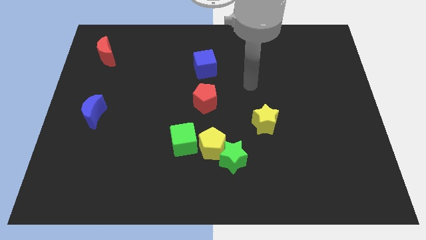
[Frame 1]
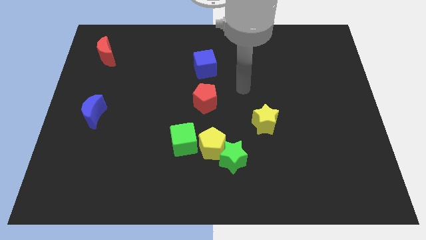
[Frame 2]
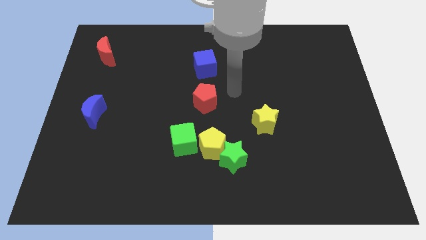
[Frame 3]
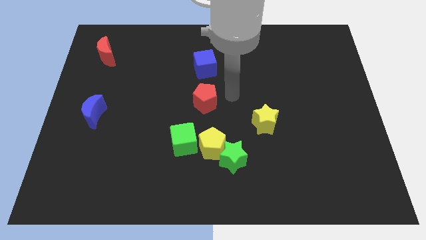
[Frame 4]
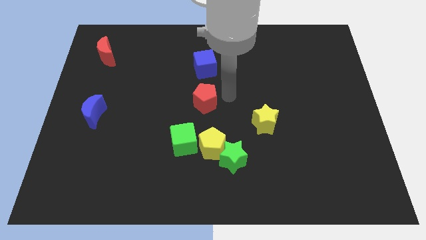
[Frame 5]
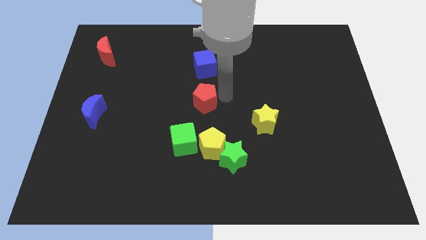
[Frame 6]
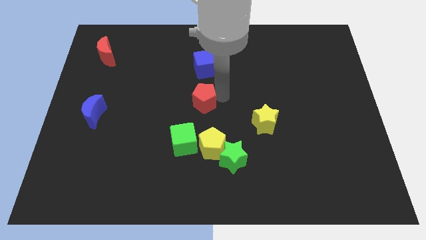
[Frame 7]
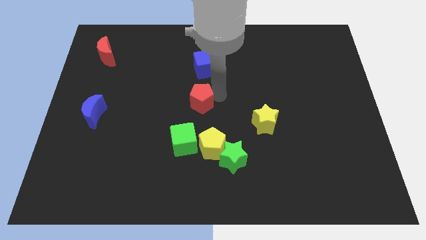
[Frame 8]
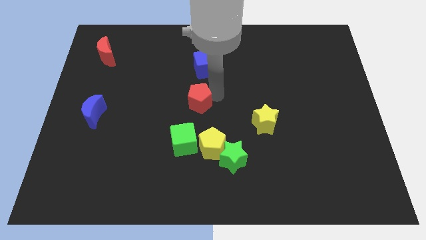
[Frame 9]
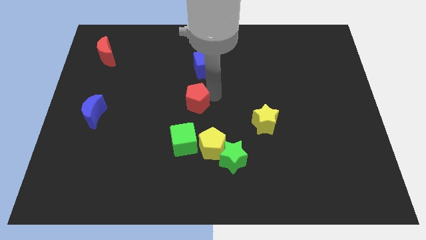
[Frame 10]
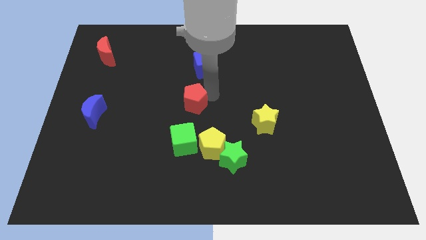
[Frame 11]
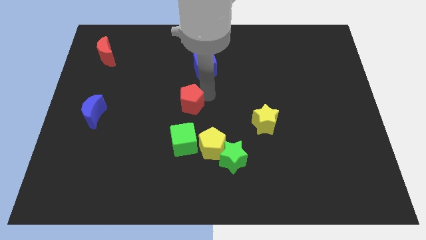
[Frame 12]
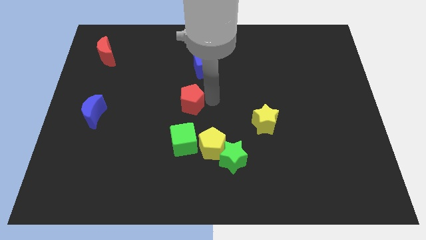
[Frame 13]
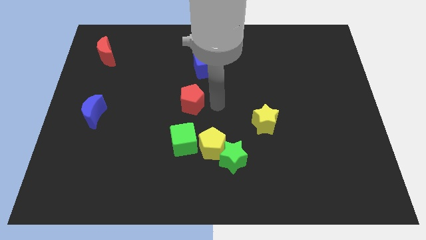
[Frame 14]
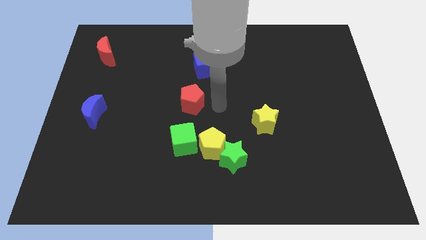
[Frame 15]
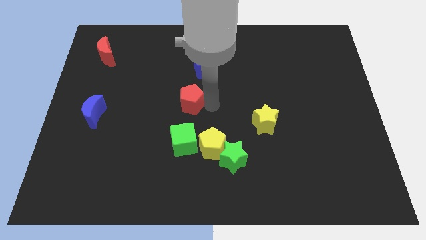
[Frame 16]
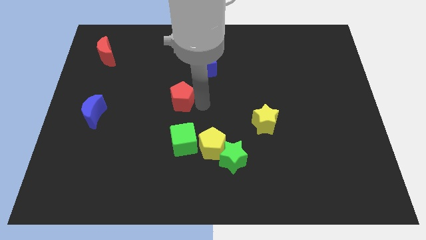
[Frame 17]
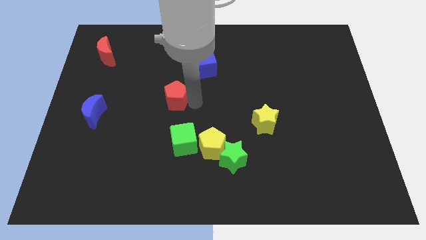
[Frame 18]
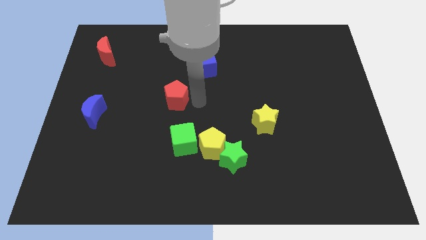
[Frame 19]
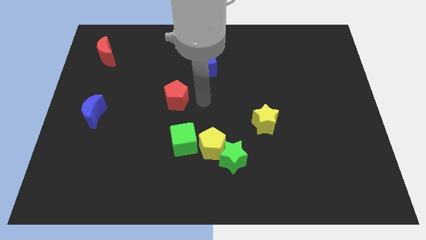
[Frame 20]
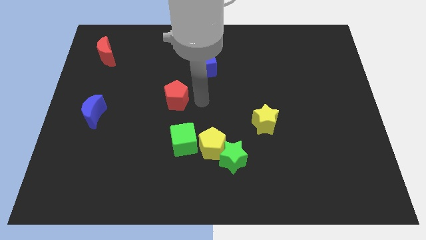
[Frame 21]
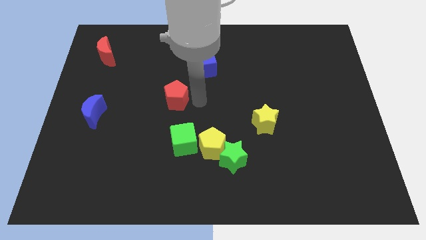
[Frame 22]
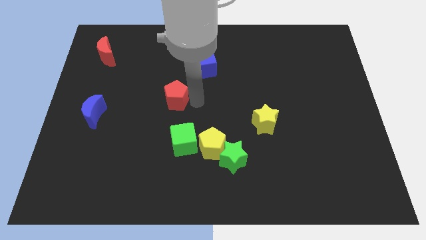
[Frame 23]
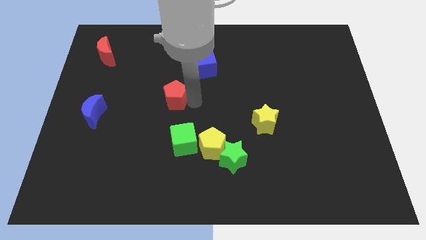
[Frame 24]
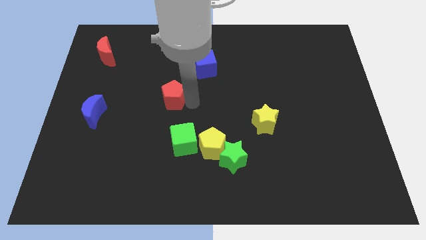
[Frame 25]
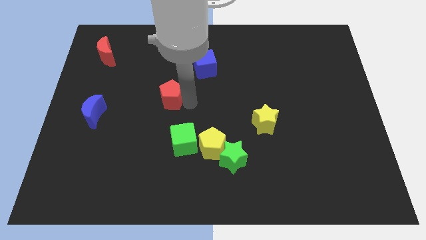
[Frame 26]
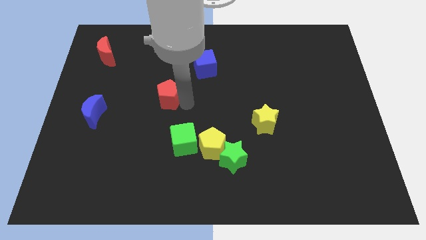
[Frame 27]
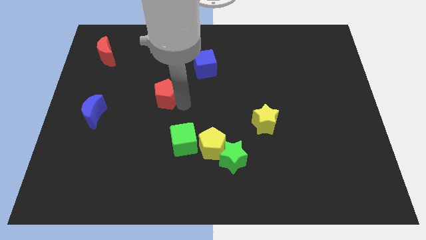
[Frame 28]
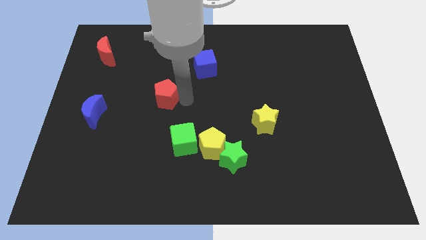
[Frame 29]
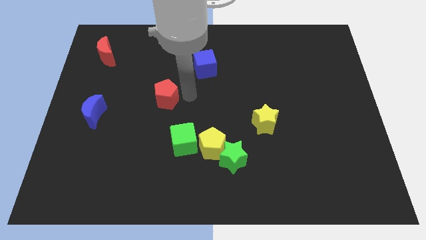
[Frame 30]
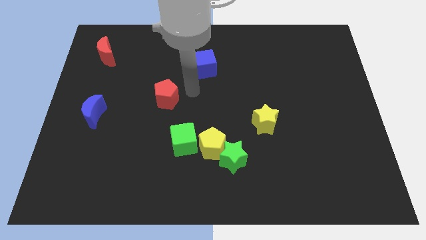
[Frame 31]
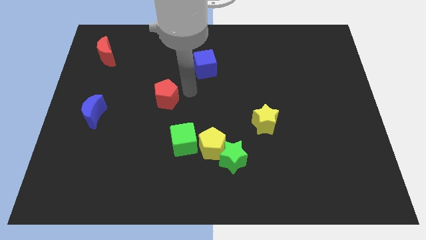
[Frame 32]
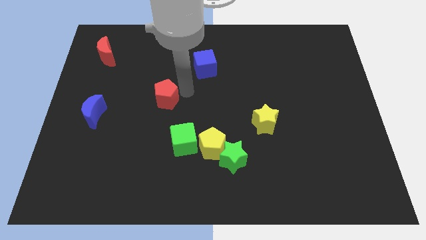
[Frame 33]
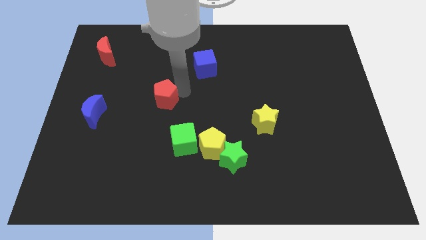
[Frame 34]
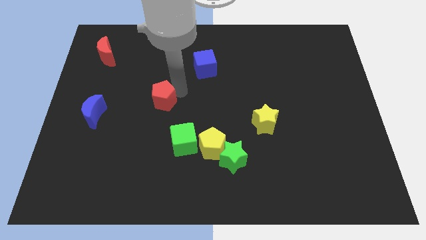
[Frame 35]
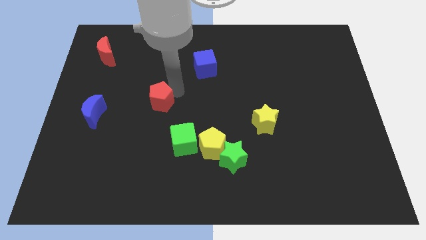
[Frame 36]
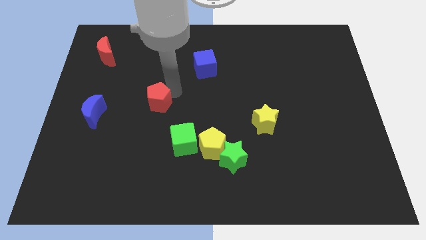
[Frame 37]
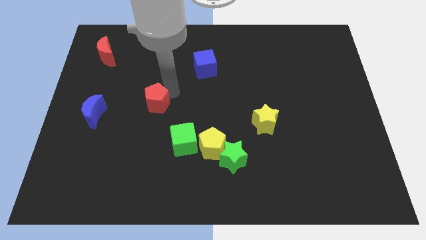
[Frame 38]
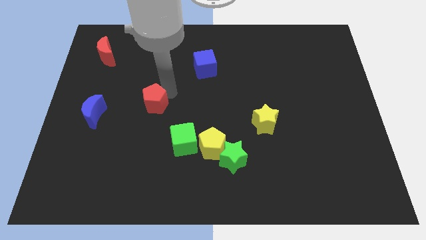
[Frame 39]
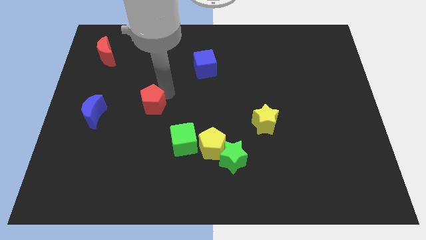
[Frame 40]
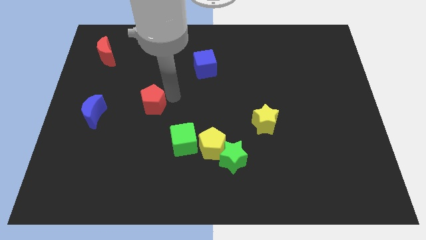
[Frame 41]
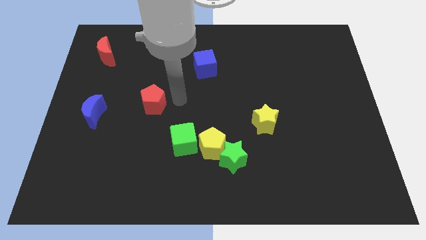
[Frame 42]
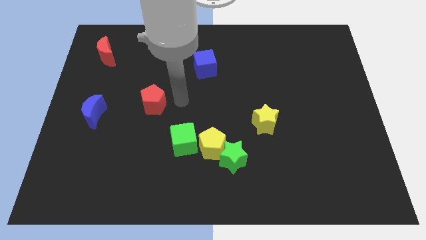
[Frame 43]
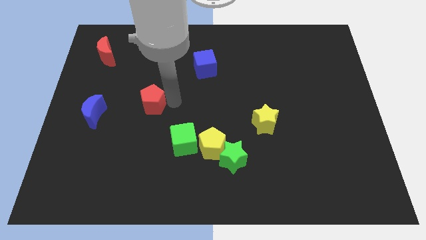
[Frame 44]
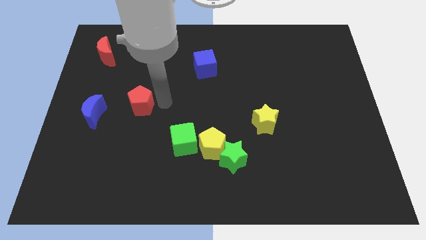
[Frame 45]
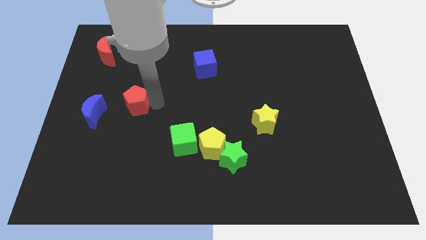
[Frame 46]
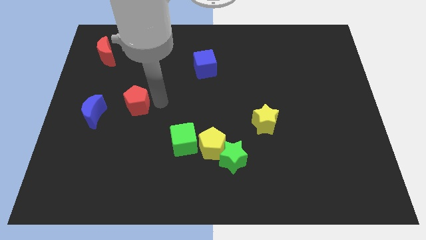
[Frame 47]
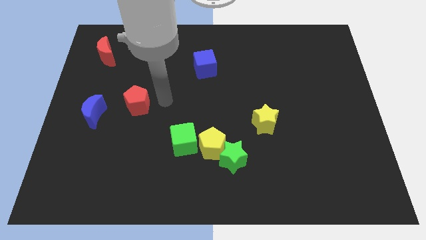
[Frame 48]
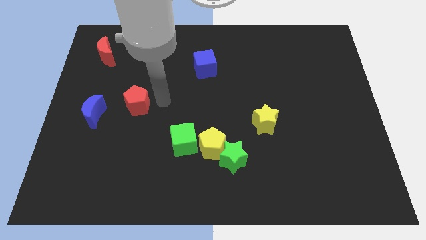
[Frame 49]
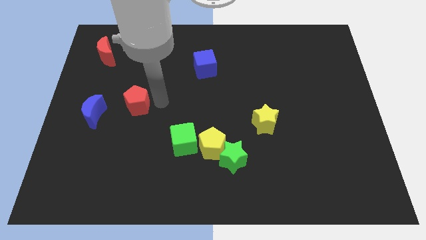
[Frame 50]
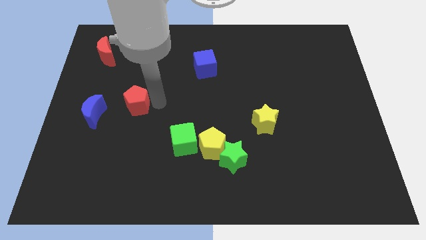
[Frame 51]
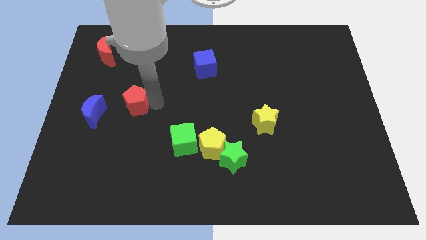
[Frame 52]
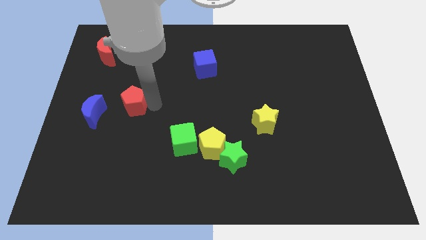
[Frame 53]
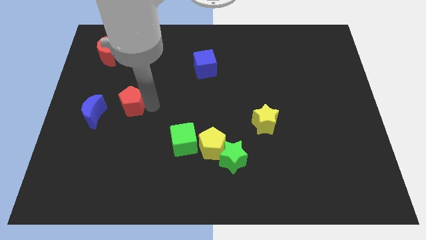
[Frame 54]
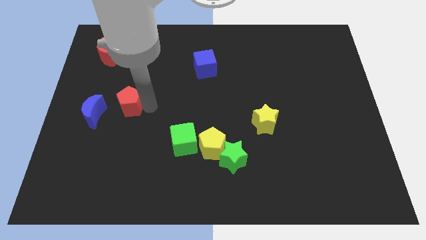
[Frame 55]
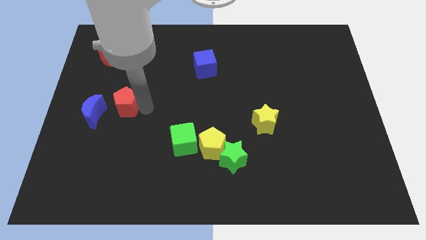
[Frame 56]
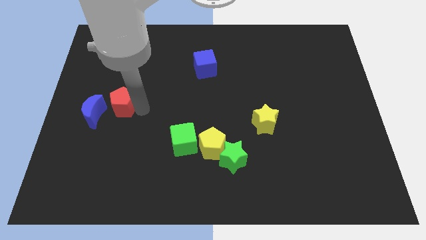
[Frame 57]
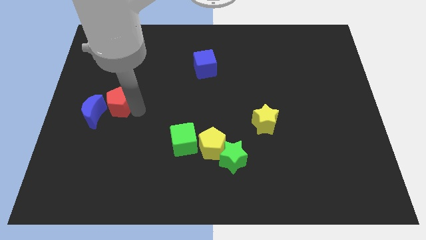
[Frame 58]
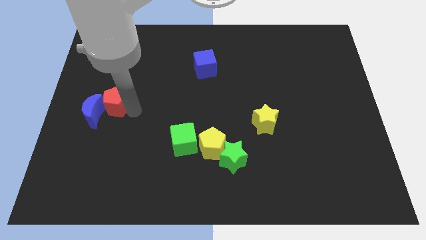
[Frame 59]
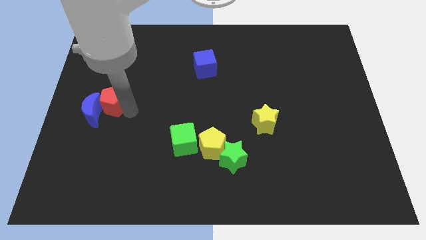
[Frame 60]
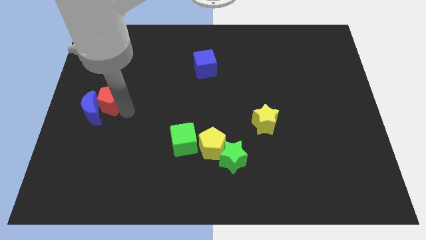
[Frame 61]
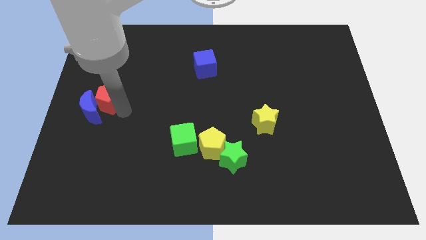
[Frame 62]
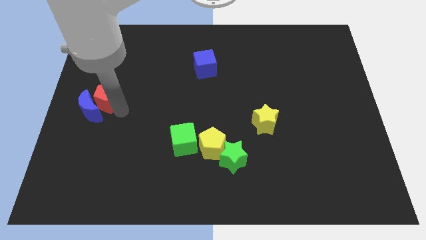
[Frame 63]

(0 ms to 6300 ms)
move the red pentagon to the center left
